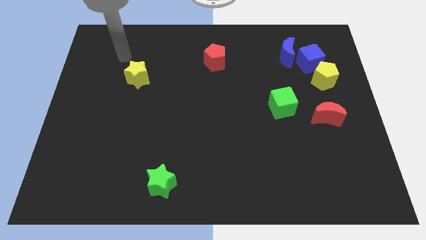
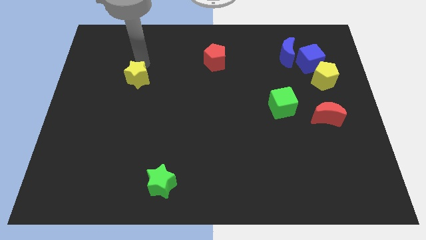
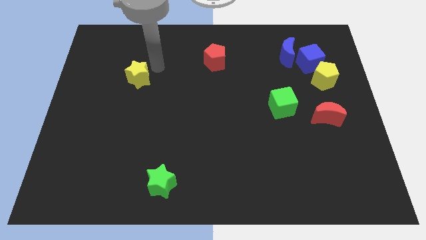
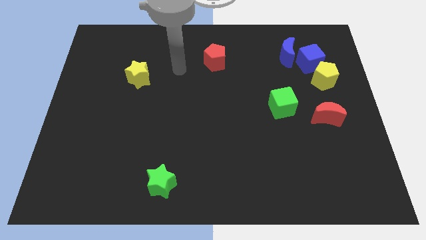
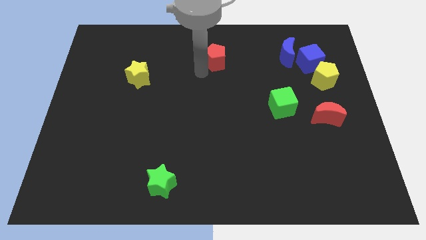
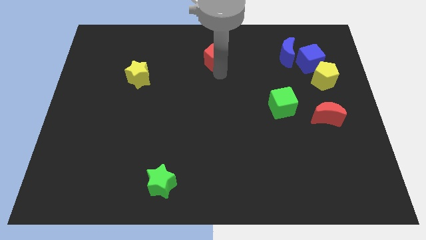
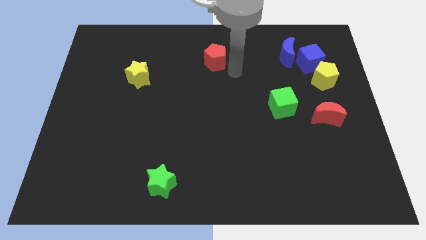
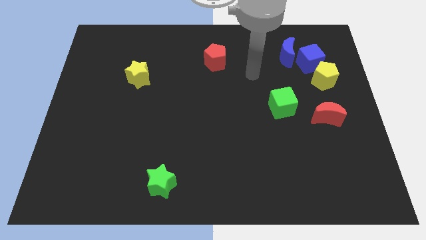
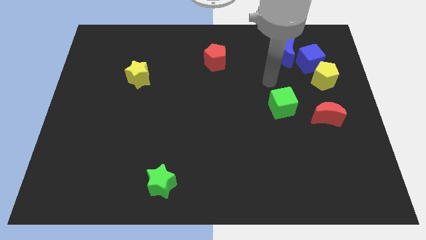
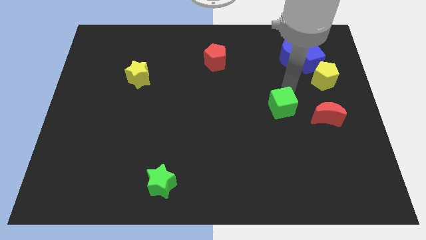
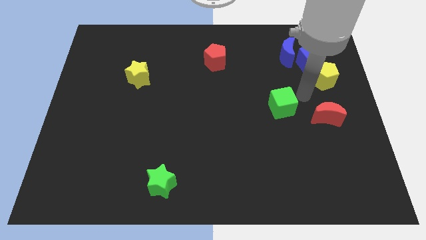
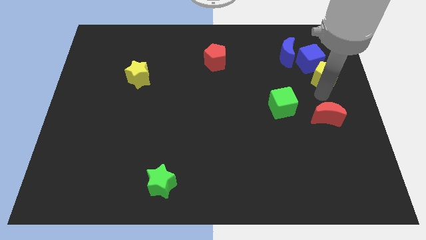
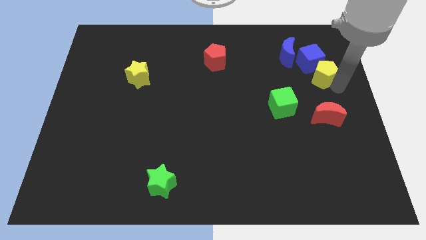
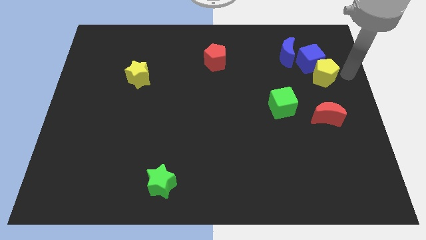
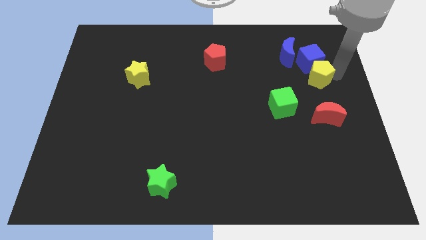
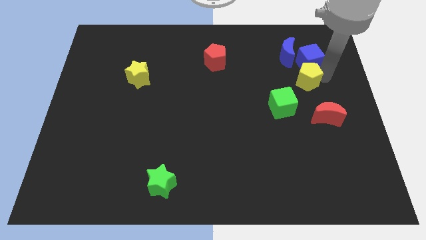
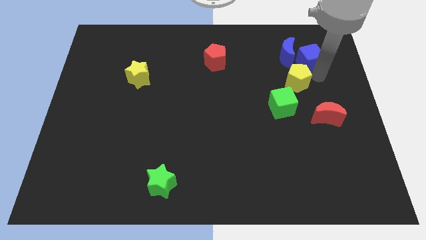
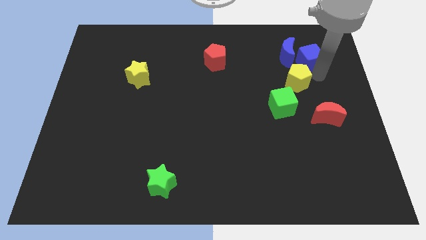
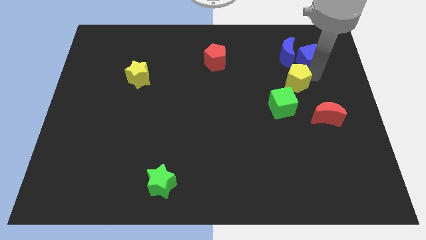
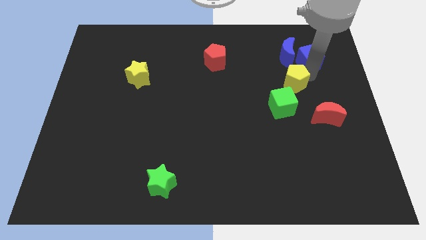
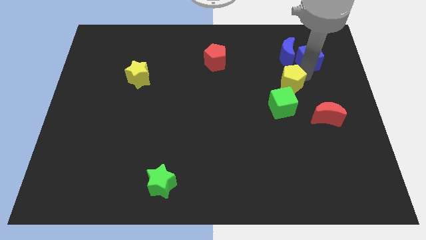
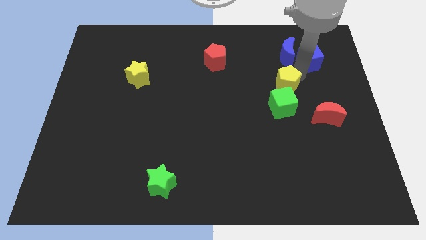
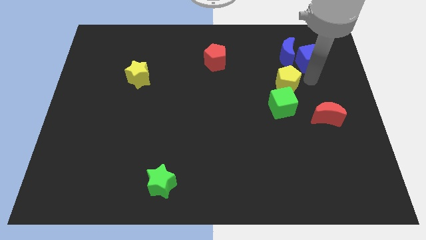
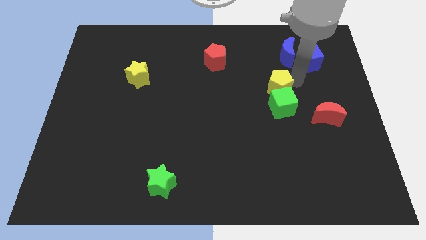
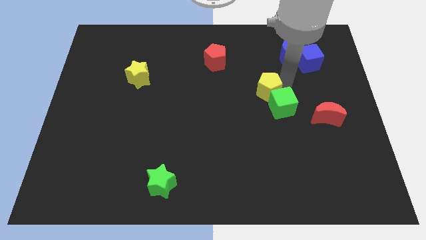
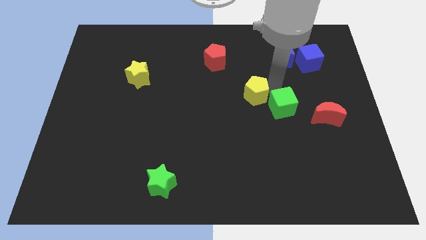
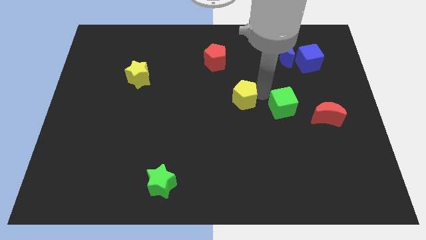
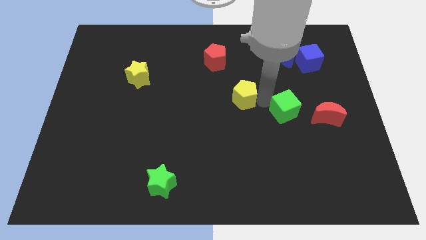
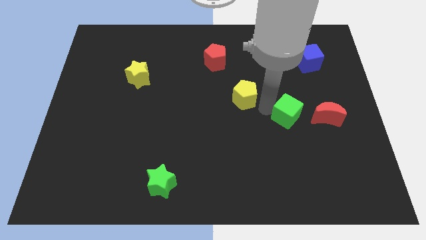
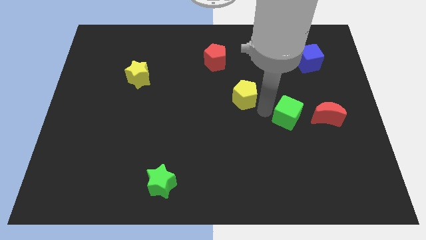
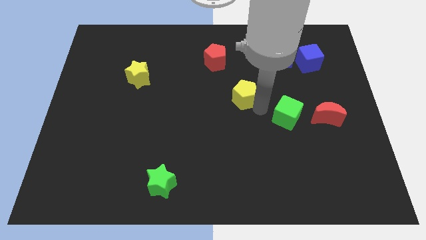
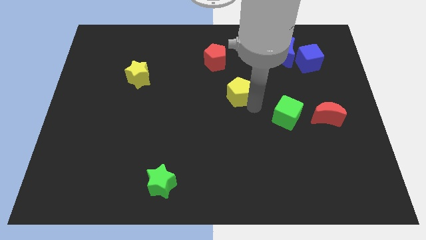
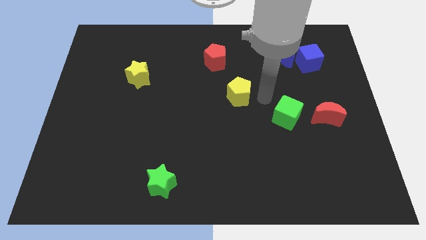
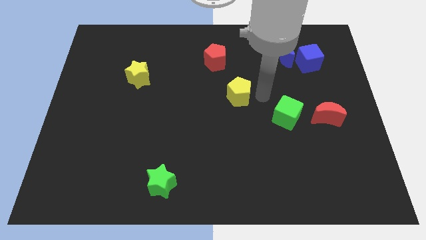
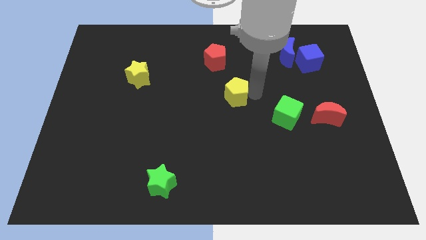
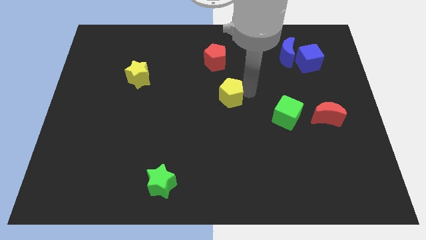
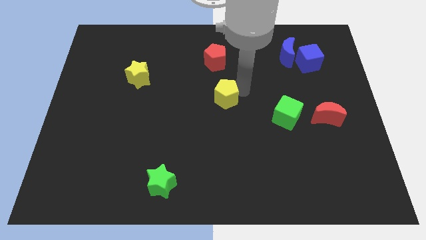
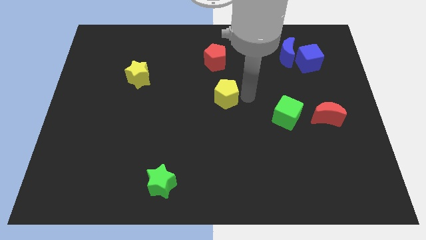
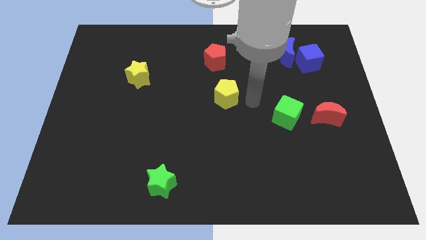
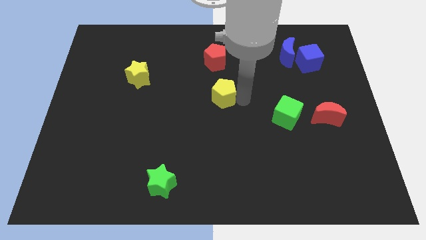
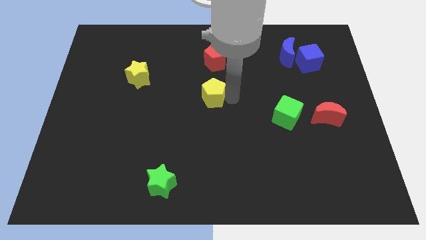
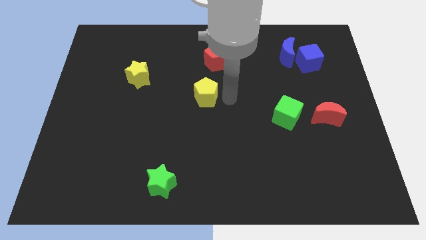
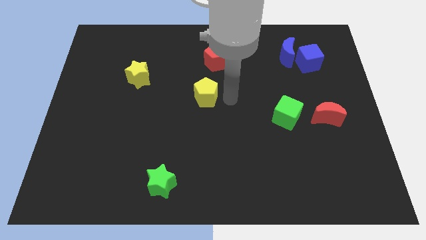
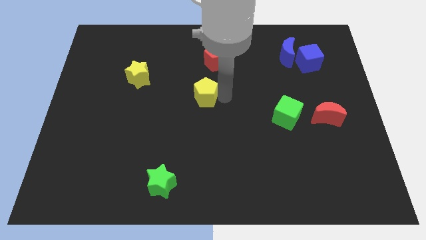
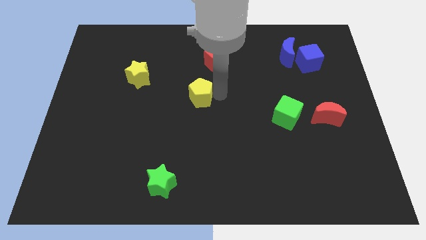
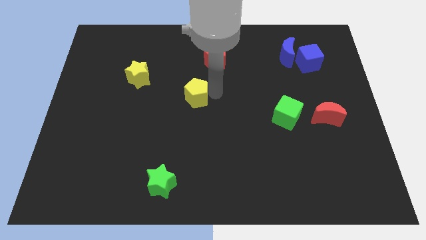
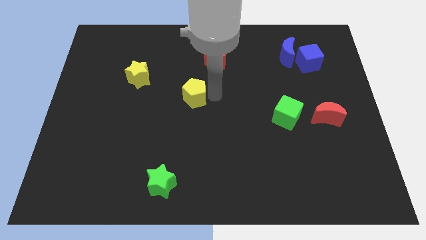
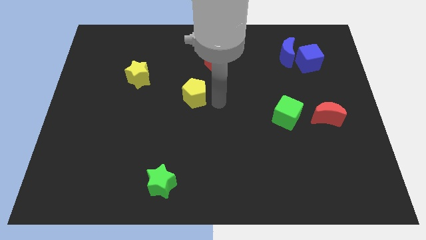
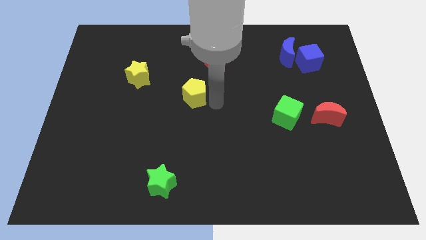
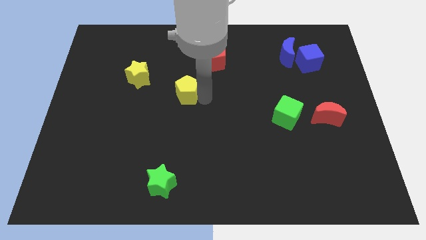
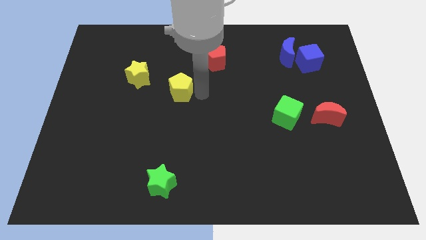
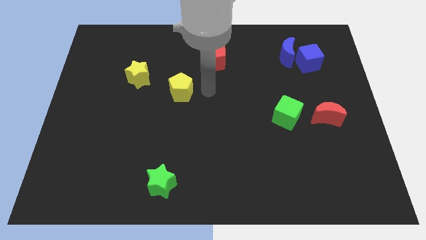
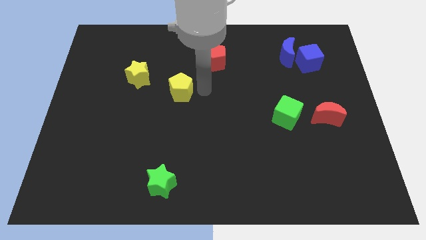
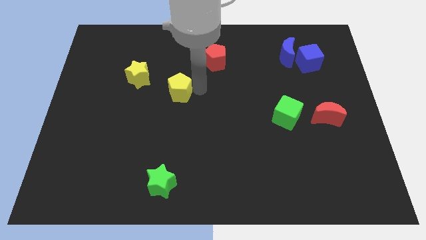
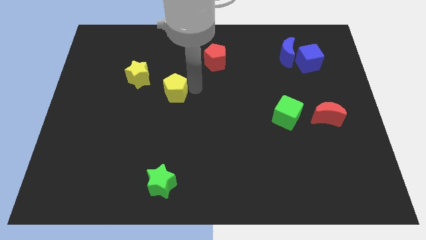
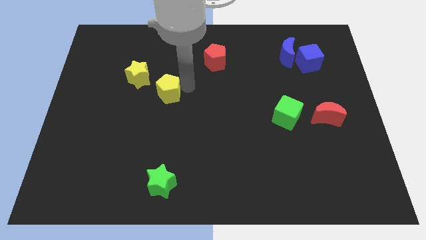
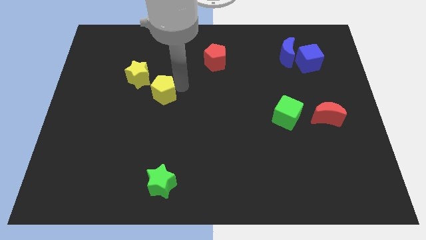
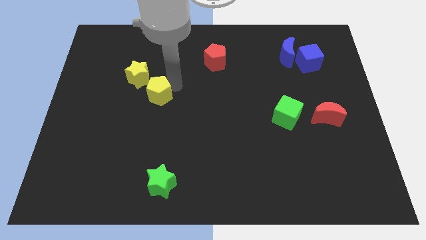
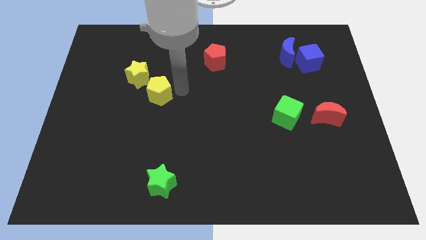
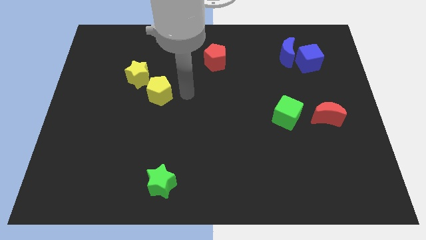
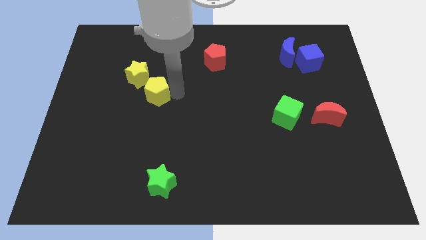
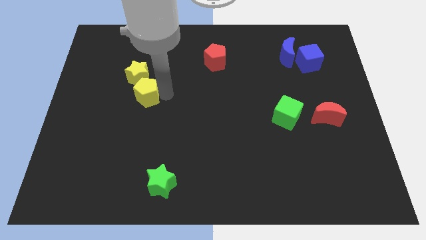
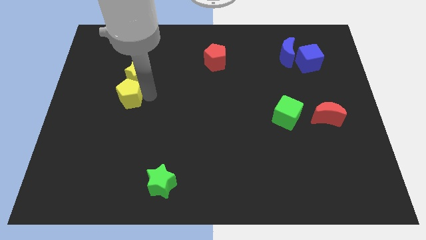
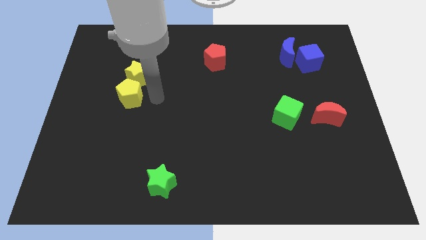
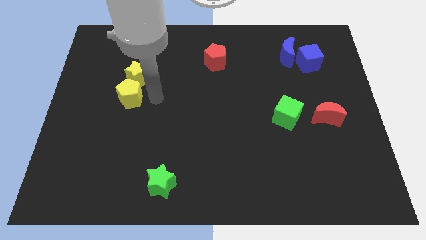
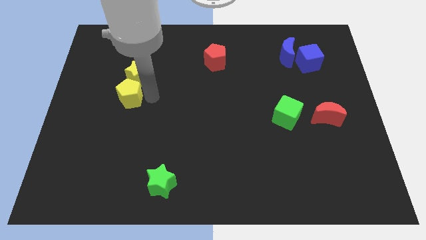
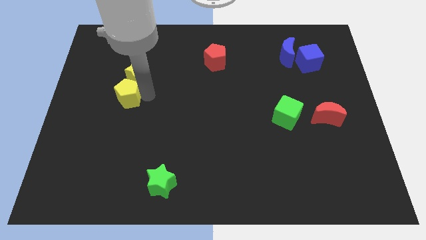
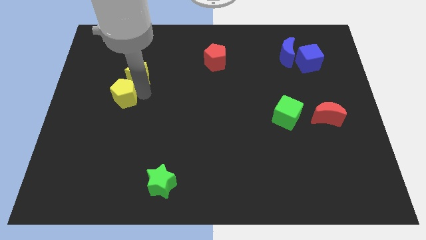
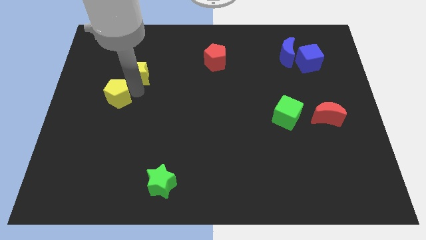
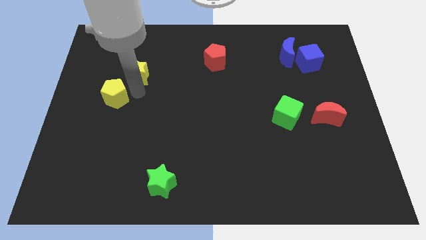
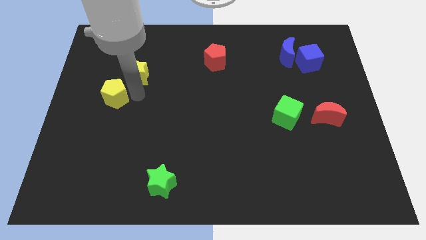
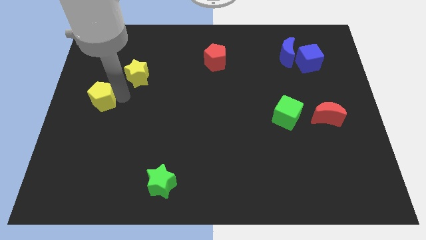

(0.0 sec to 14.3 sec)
move the yellow pentagon to the center left
